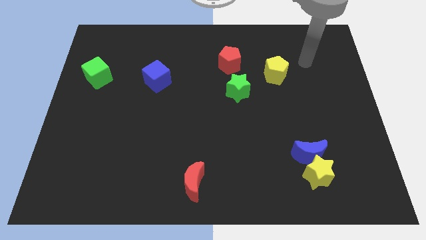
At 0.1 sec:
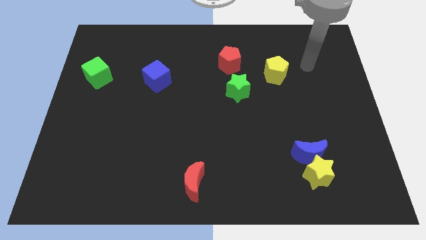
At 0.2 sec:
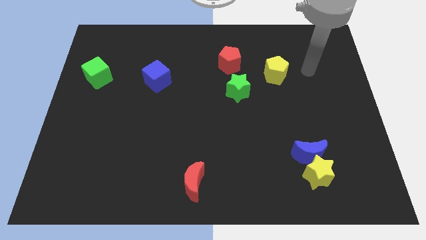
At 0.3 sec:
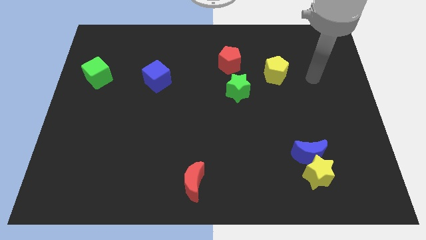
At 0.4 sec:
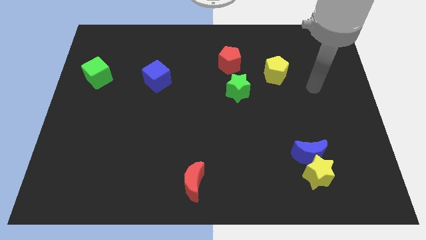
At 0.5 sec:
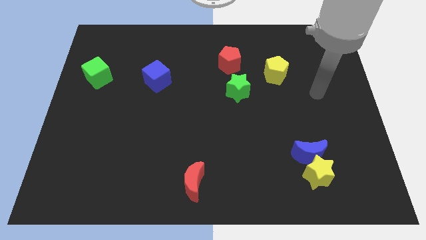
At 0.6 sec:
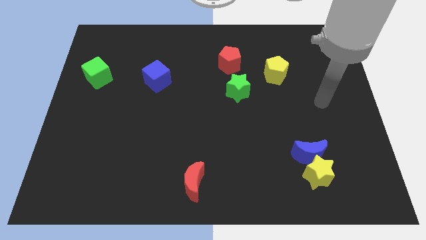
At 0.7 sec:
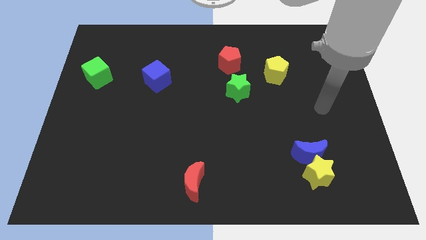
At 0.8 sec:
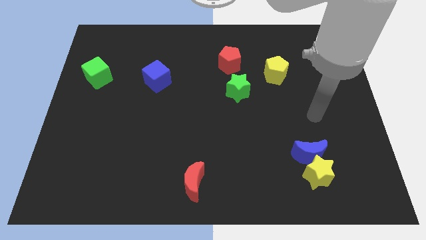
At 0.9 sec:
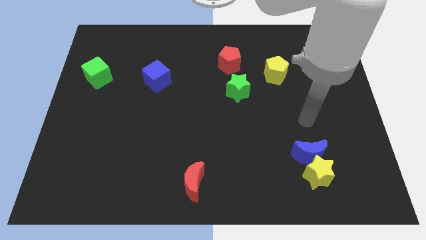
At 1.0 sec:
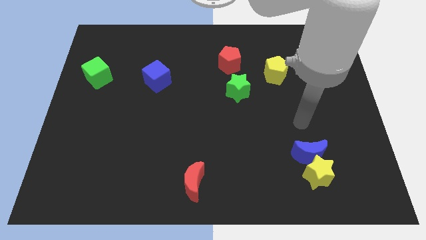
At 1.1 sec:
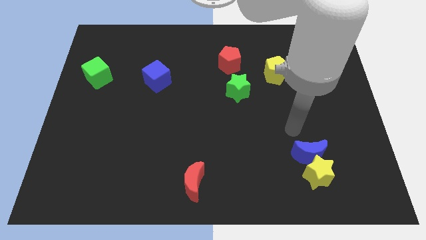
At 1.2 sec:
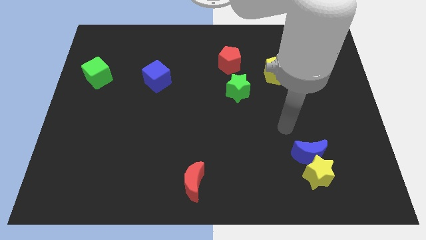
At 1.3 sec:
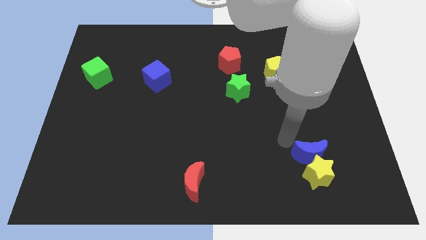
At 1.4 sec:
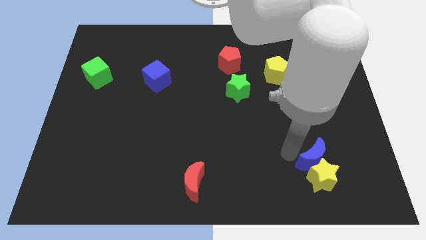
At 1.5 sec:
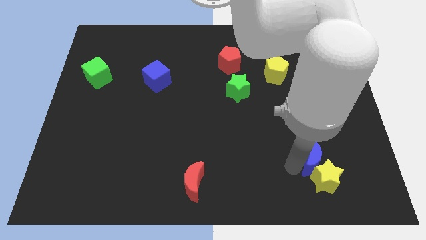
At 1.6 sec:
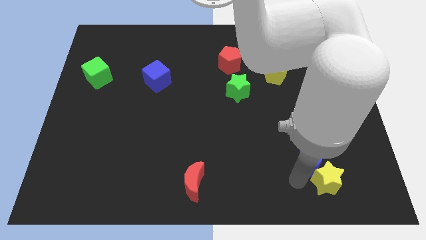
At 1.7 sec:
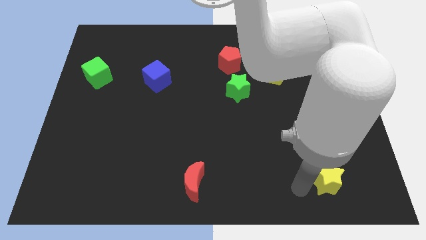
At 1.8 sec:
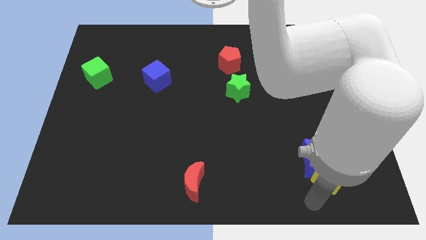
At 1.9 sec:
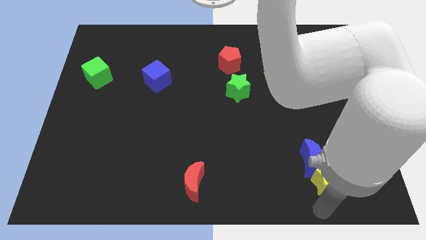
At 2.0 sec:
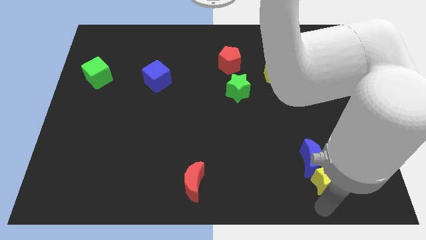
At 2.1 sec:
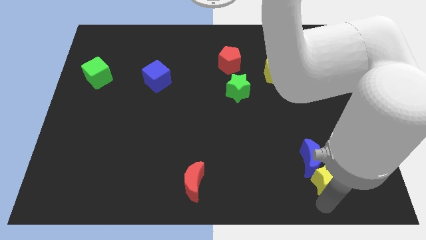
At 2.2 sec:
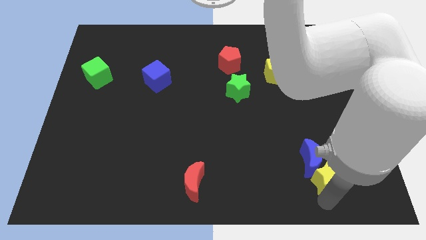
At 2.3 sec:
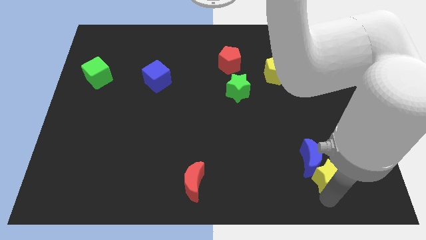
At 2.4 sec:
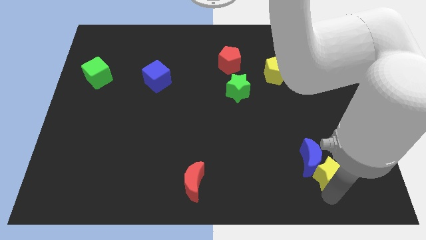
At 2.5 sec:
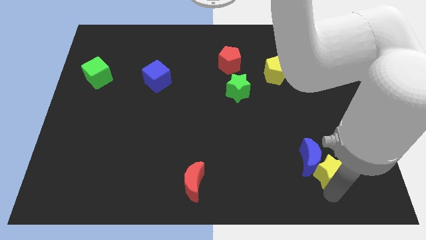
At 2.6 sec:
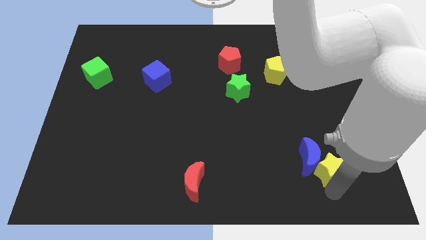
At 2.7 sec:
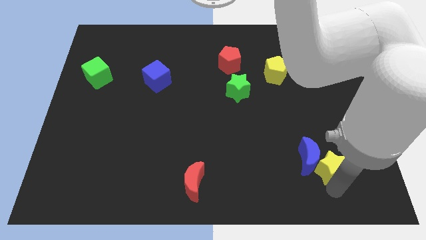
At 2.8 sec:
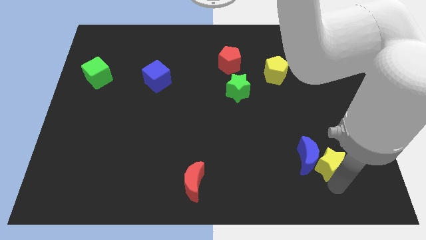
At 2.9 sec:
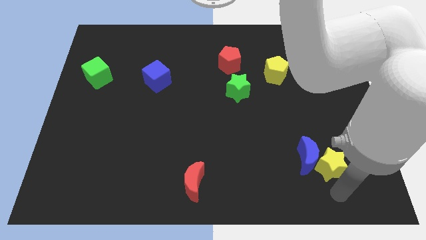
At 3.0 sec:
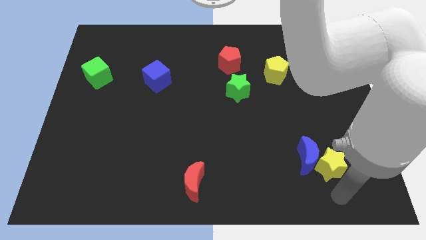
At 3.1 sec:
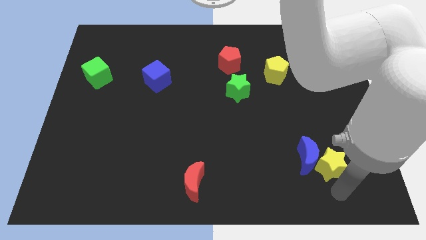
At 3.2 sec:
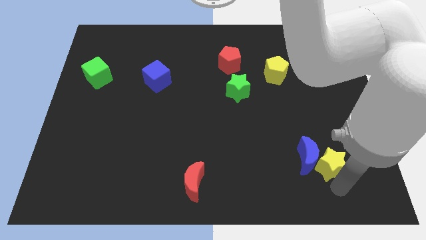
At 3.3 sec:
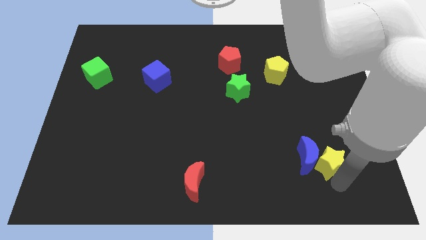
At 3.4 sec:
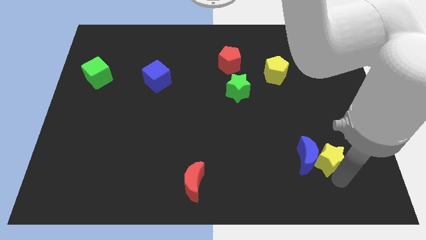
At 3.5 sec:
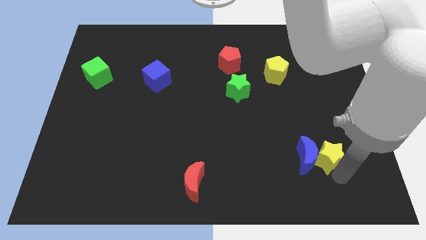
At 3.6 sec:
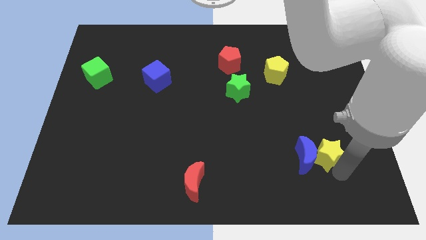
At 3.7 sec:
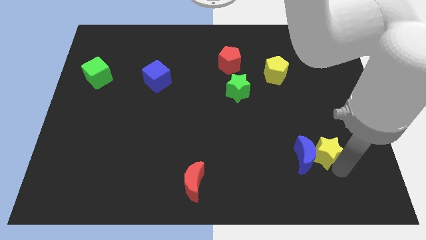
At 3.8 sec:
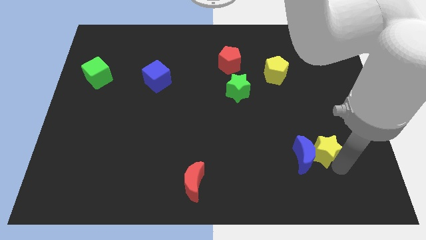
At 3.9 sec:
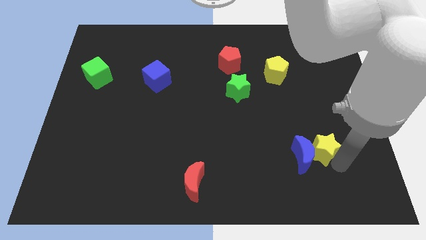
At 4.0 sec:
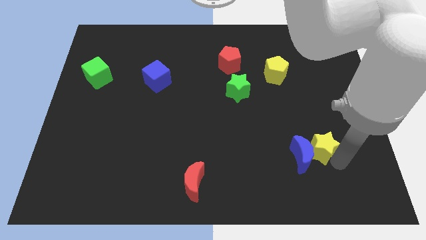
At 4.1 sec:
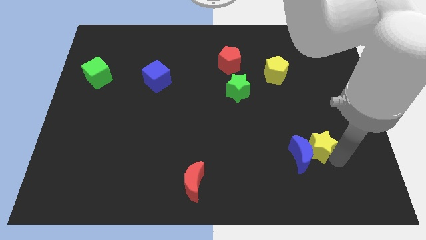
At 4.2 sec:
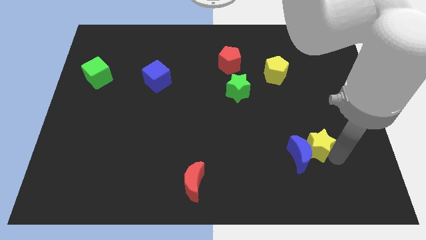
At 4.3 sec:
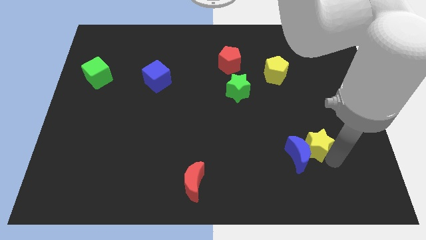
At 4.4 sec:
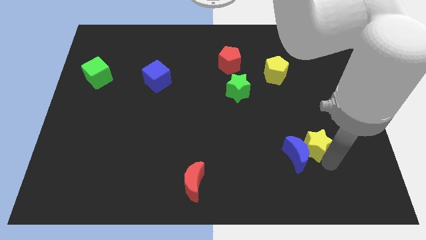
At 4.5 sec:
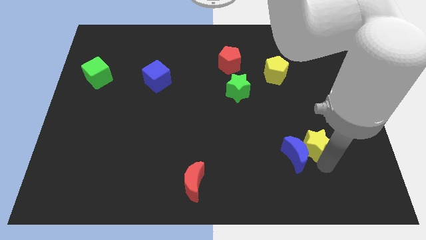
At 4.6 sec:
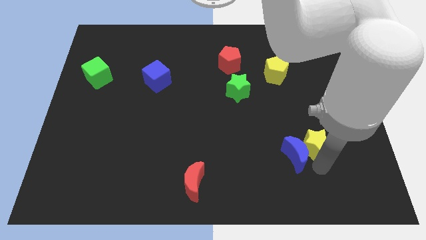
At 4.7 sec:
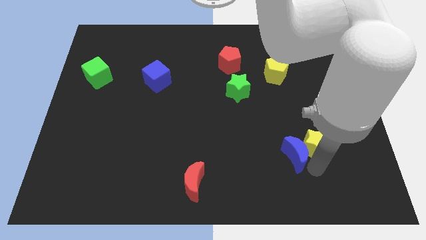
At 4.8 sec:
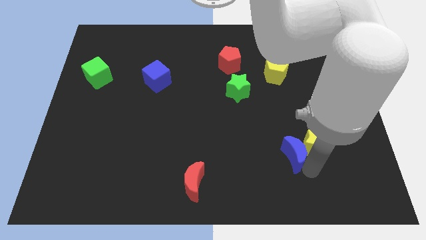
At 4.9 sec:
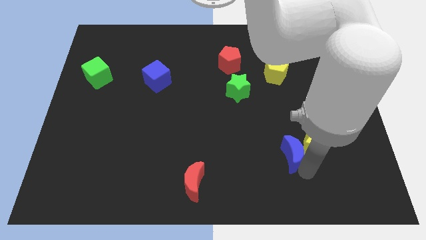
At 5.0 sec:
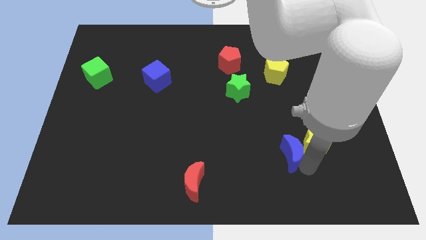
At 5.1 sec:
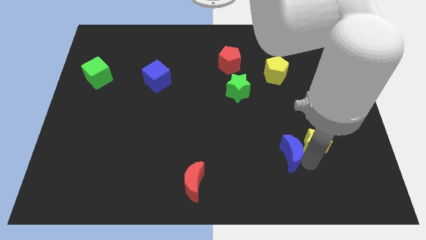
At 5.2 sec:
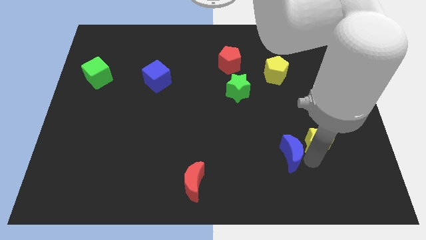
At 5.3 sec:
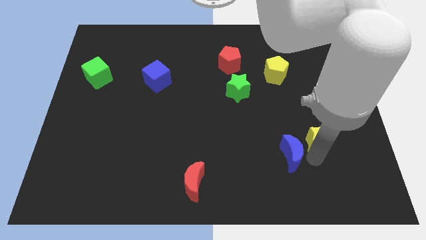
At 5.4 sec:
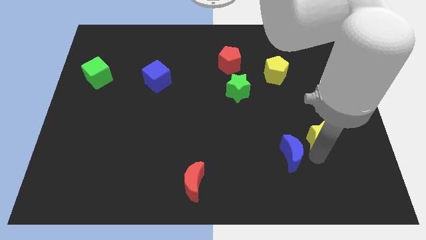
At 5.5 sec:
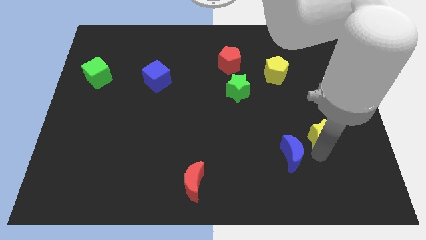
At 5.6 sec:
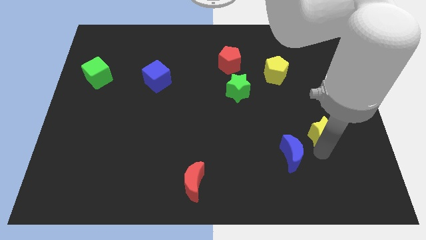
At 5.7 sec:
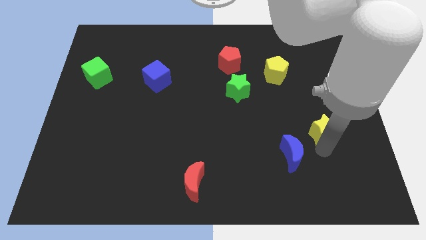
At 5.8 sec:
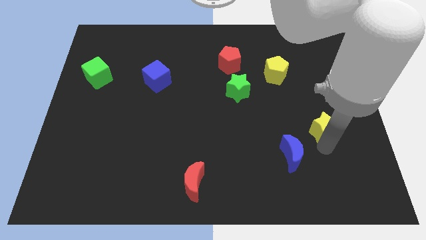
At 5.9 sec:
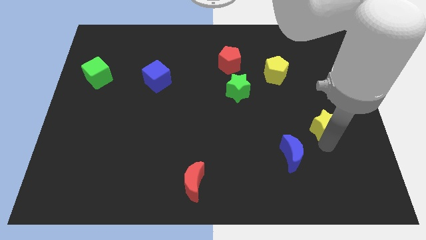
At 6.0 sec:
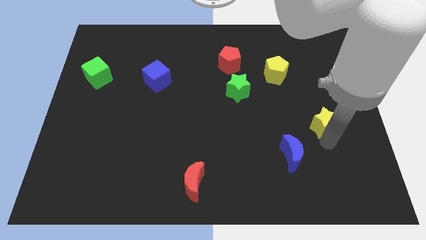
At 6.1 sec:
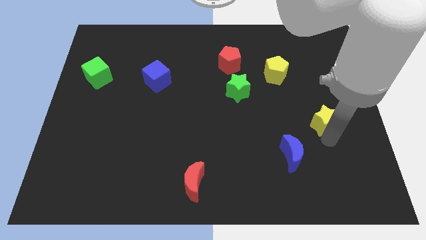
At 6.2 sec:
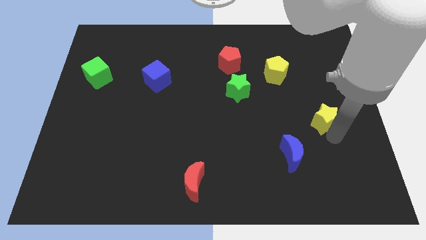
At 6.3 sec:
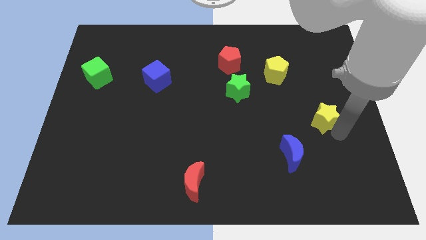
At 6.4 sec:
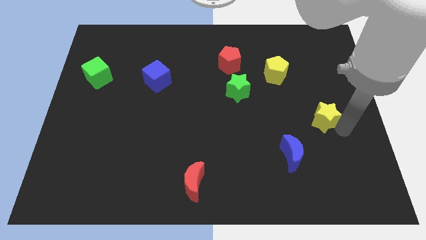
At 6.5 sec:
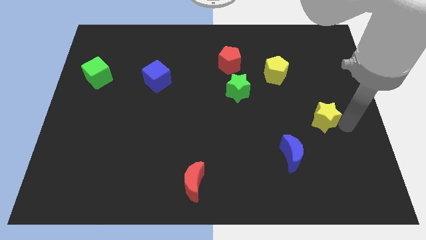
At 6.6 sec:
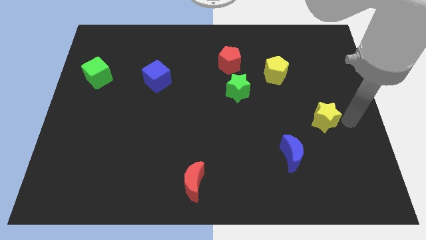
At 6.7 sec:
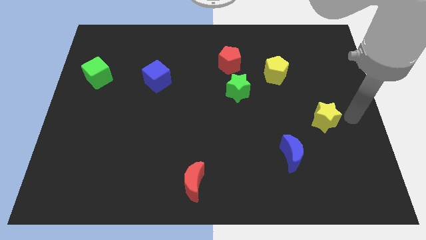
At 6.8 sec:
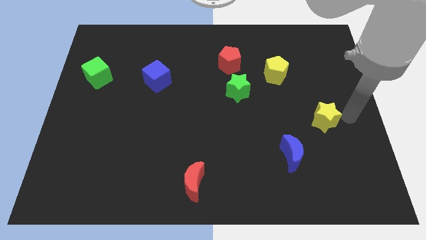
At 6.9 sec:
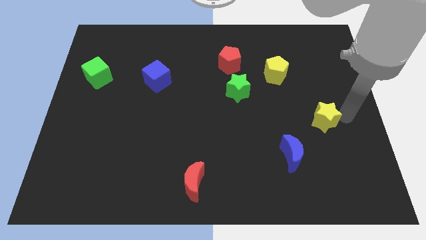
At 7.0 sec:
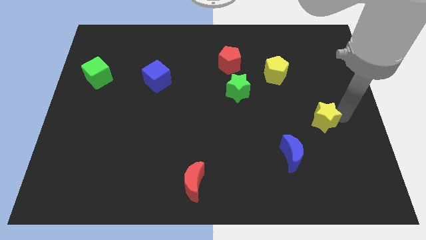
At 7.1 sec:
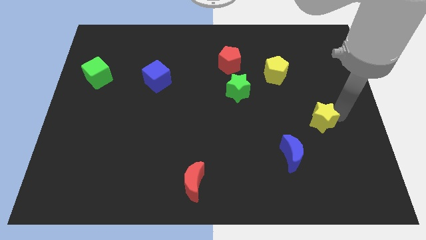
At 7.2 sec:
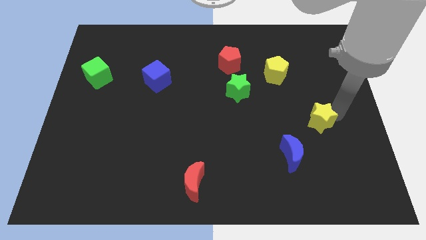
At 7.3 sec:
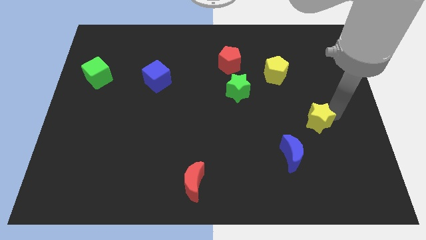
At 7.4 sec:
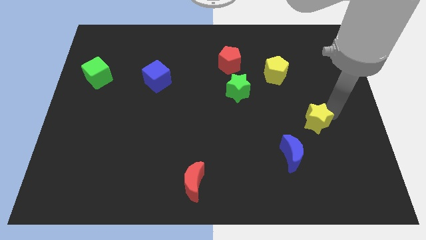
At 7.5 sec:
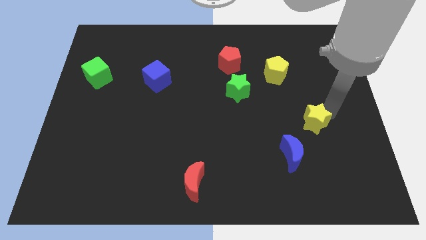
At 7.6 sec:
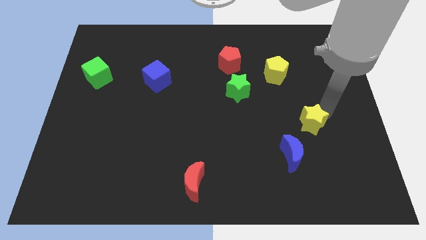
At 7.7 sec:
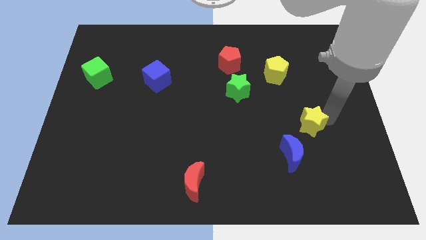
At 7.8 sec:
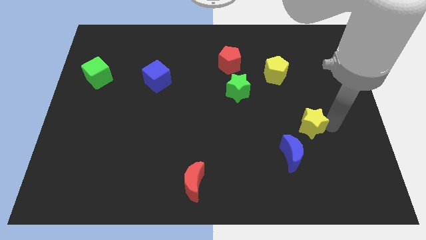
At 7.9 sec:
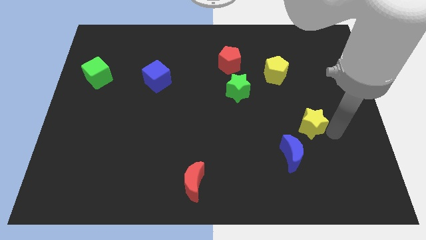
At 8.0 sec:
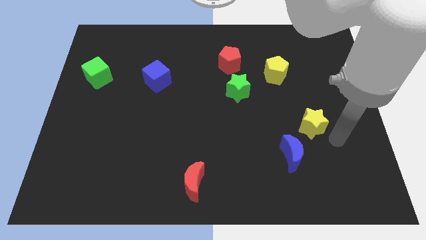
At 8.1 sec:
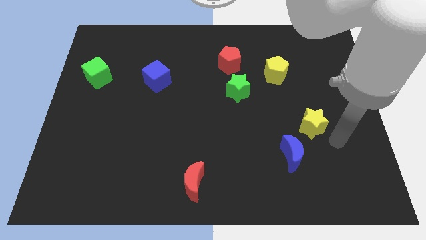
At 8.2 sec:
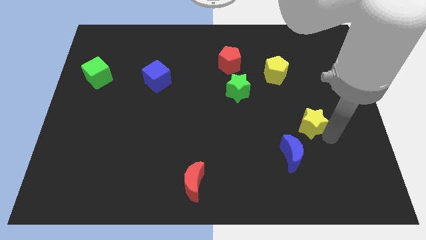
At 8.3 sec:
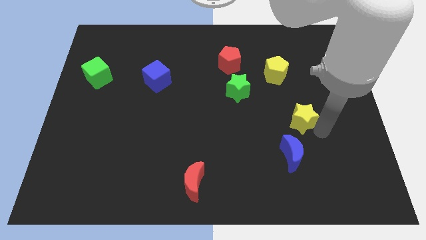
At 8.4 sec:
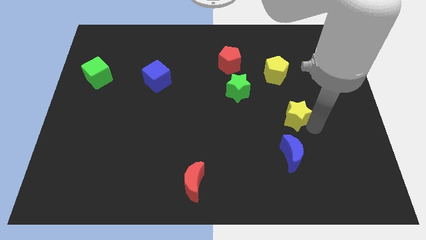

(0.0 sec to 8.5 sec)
move the yellow star to the bottom side of the yellow pentagon
